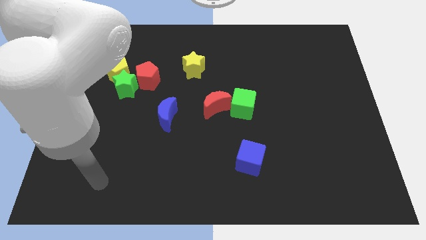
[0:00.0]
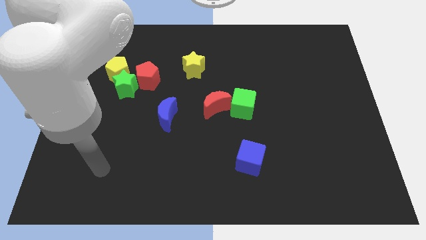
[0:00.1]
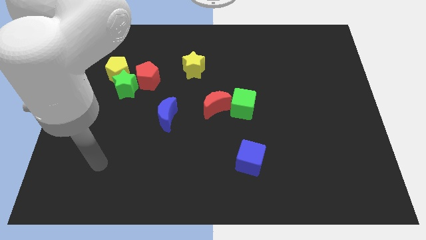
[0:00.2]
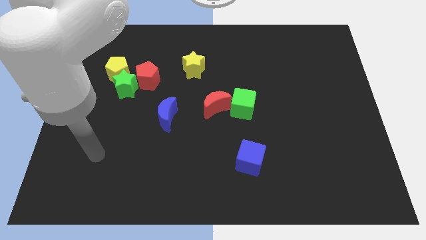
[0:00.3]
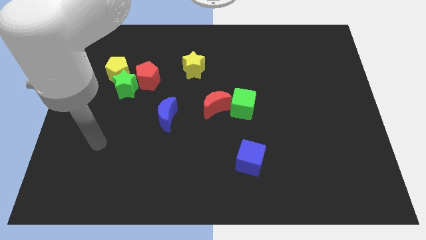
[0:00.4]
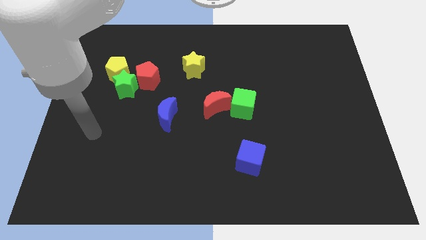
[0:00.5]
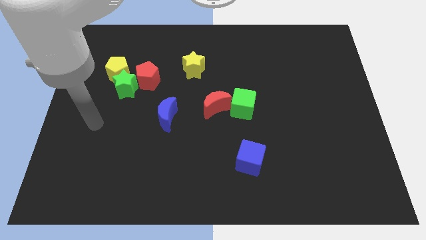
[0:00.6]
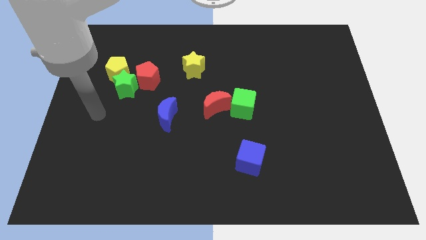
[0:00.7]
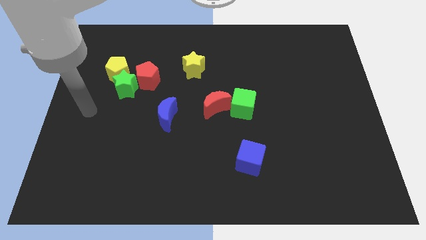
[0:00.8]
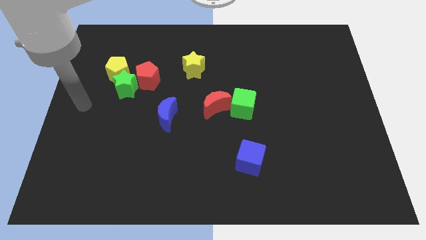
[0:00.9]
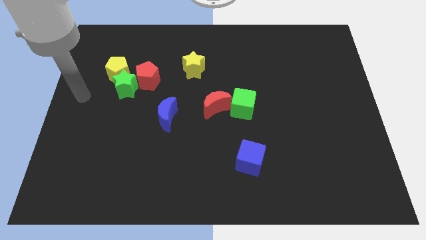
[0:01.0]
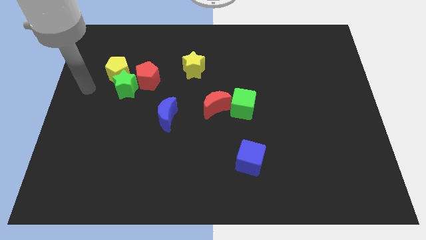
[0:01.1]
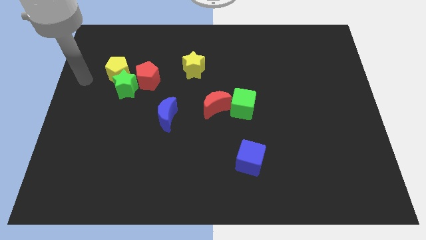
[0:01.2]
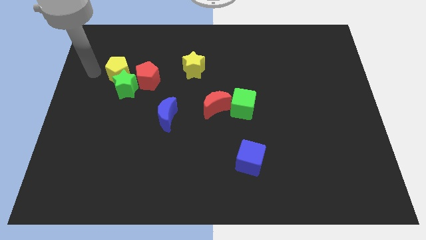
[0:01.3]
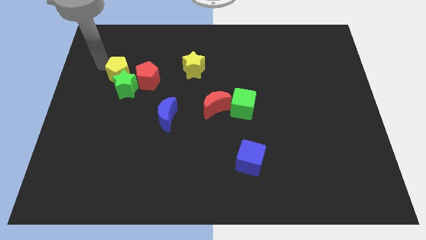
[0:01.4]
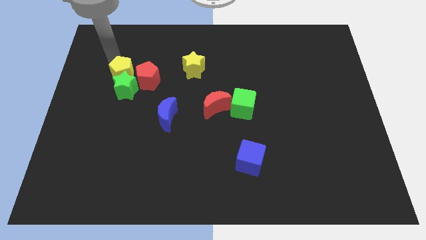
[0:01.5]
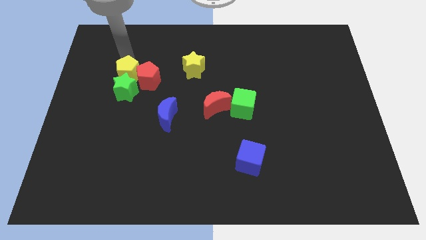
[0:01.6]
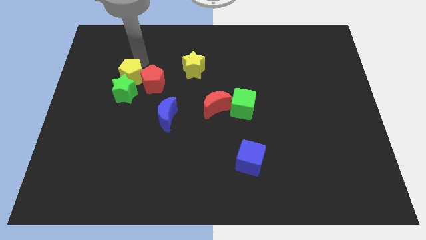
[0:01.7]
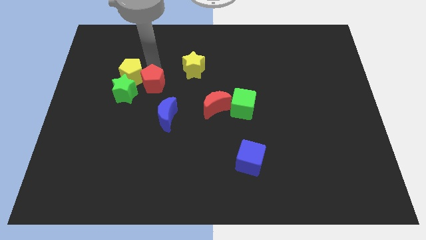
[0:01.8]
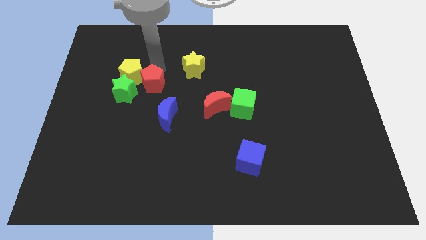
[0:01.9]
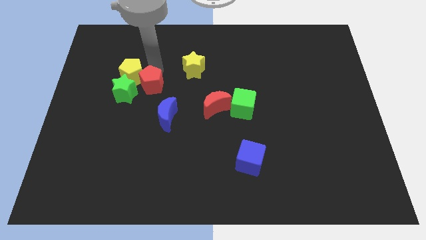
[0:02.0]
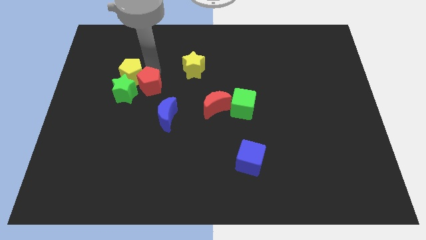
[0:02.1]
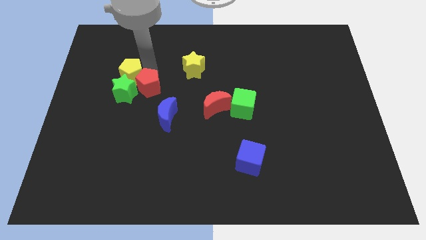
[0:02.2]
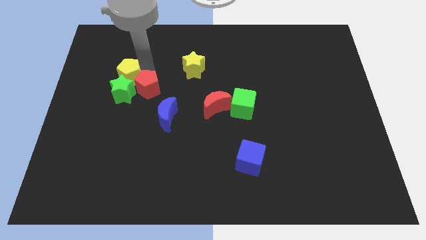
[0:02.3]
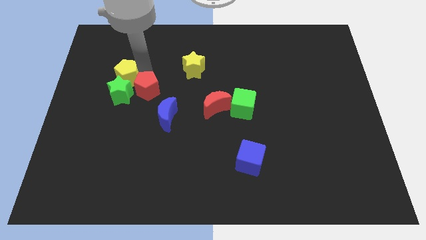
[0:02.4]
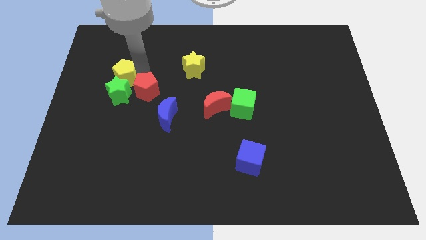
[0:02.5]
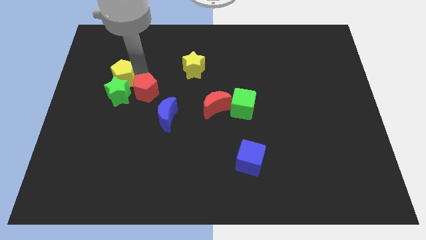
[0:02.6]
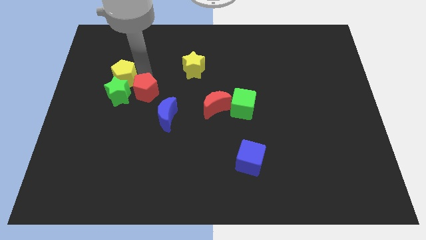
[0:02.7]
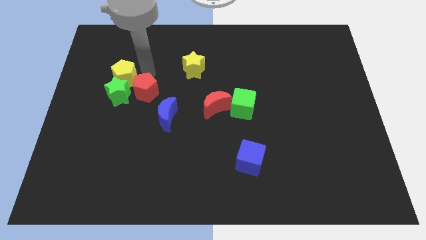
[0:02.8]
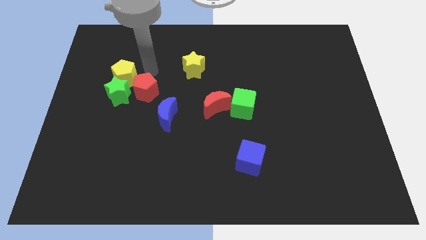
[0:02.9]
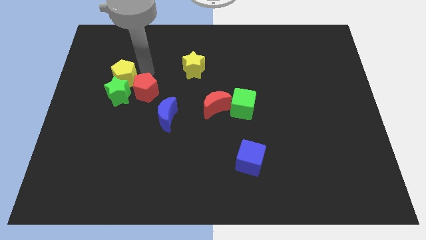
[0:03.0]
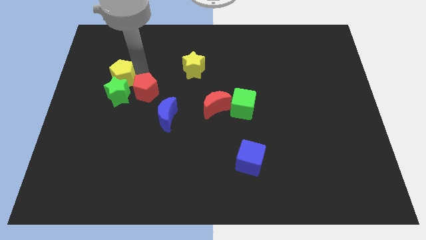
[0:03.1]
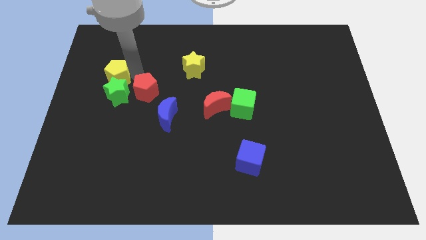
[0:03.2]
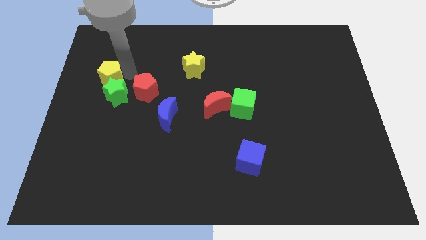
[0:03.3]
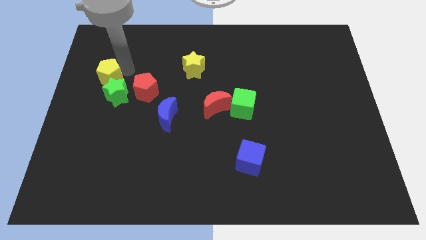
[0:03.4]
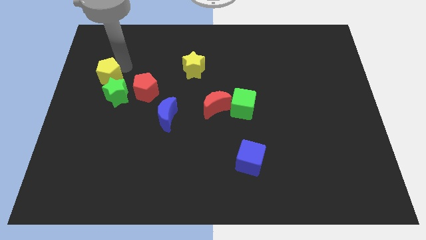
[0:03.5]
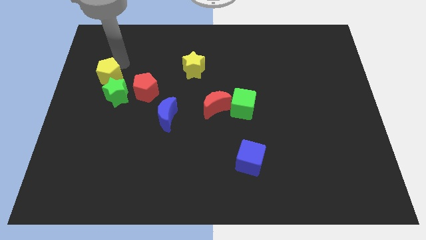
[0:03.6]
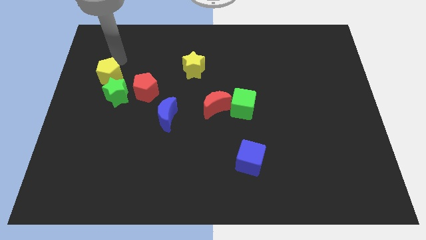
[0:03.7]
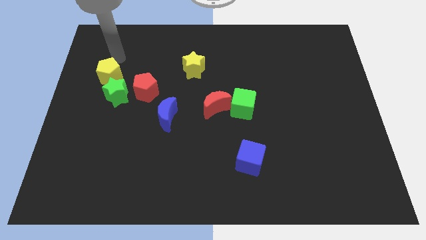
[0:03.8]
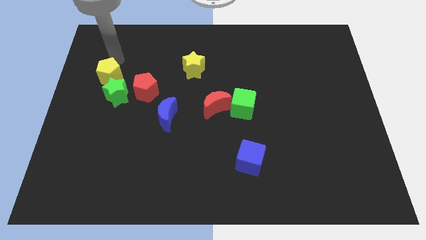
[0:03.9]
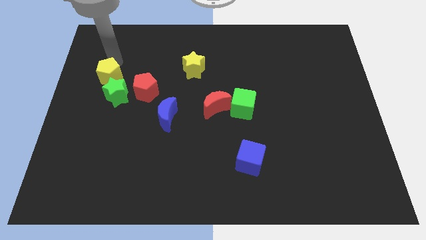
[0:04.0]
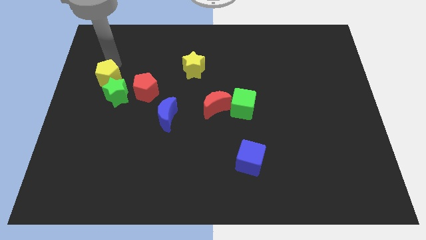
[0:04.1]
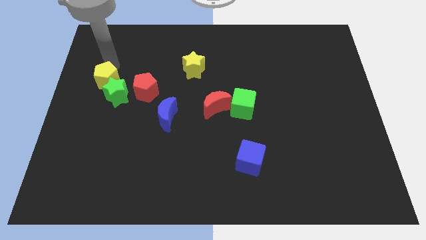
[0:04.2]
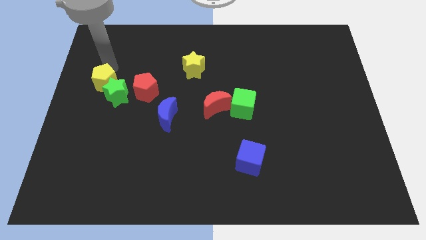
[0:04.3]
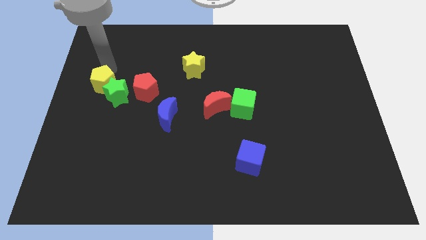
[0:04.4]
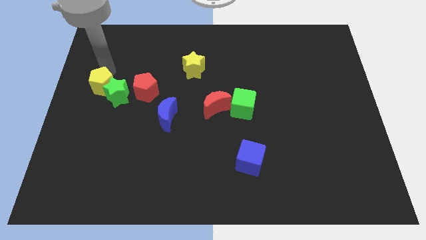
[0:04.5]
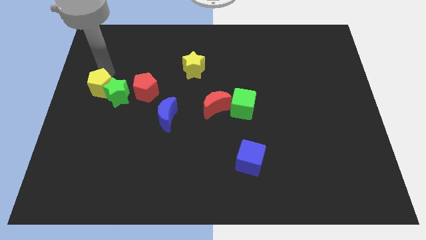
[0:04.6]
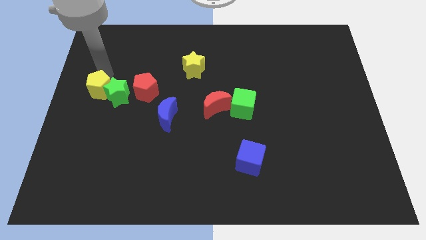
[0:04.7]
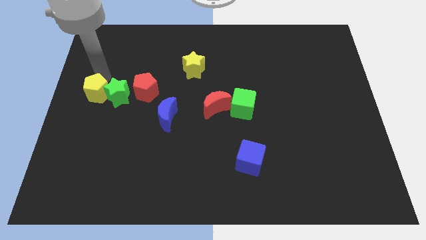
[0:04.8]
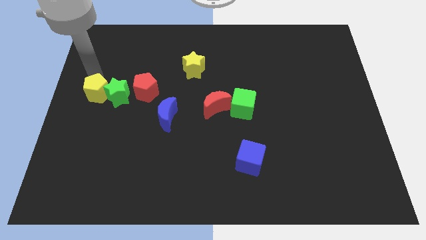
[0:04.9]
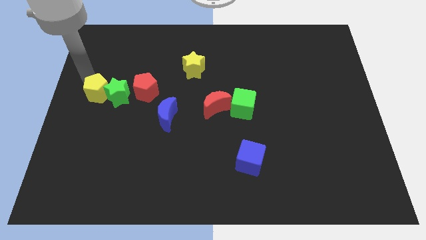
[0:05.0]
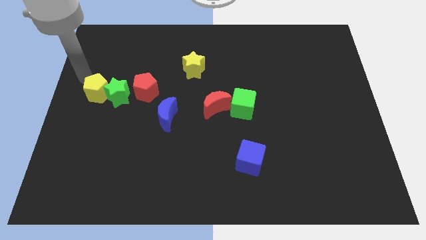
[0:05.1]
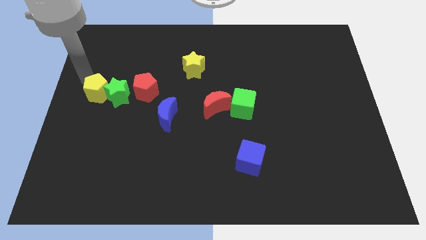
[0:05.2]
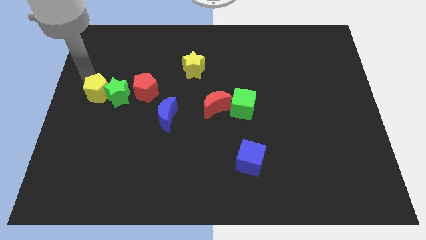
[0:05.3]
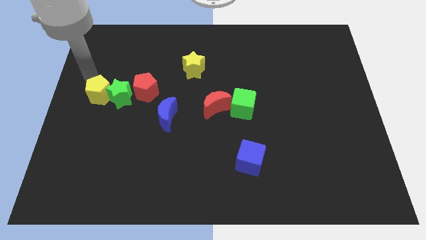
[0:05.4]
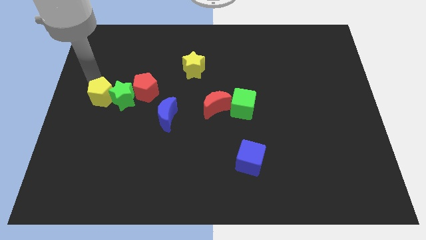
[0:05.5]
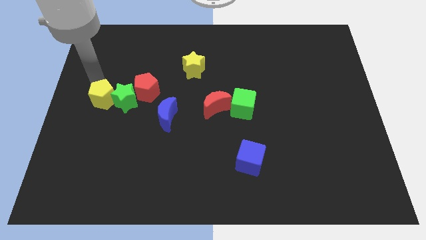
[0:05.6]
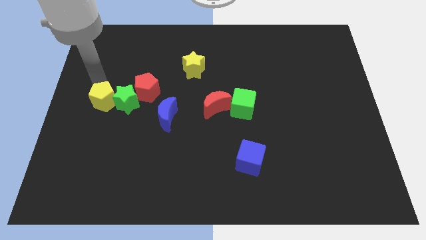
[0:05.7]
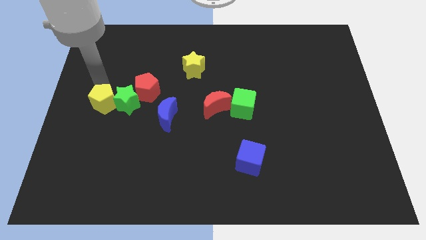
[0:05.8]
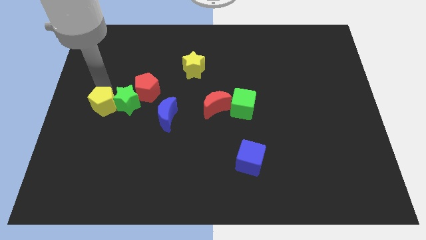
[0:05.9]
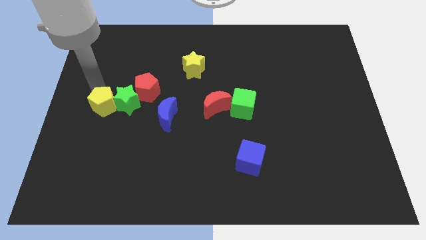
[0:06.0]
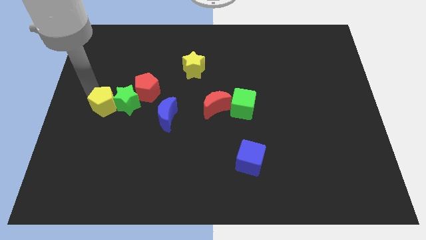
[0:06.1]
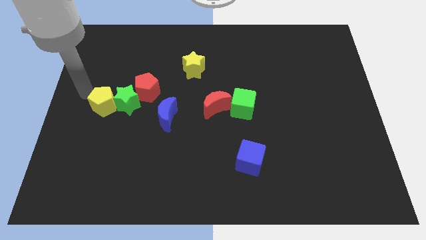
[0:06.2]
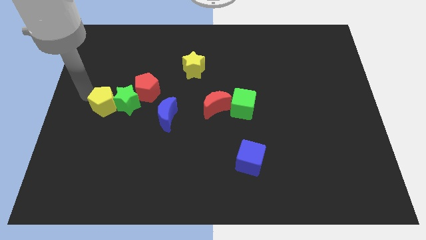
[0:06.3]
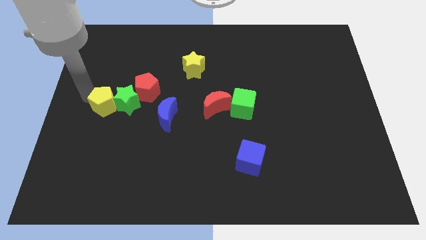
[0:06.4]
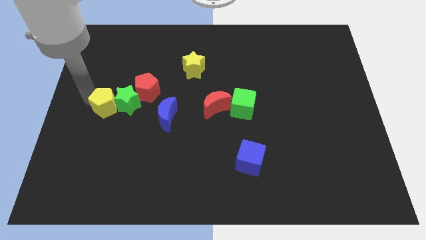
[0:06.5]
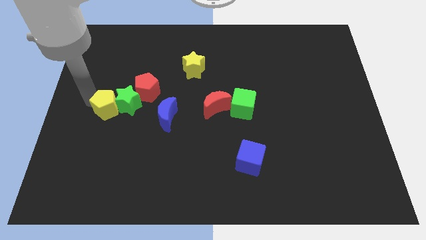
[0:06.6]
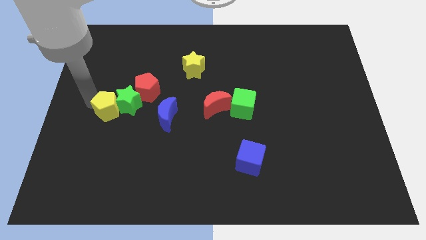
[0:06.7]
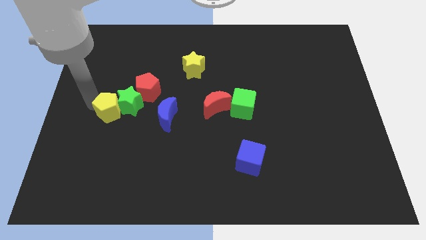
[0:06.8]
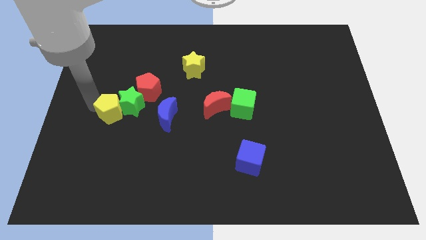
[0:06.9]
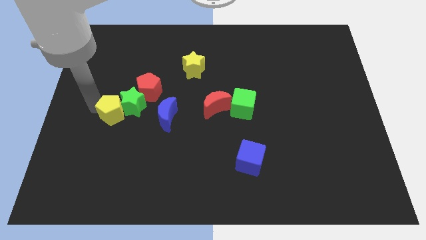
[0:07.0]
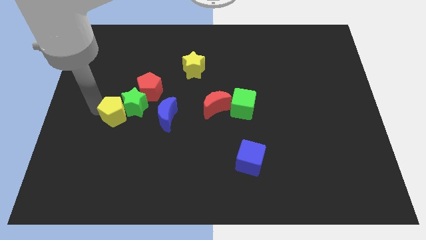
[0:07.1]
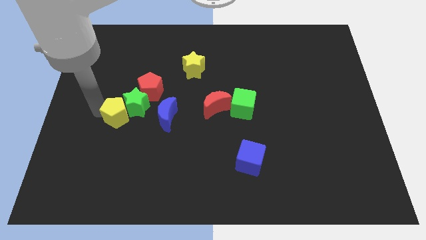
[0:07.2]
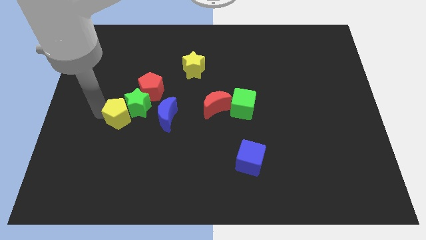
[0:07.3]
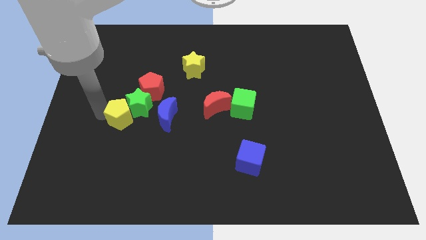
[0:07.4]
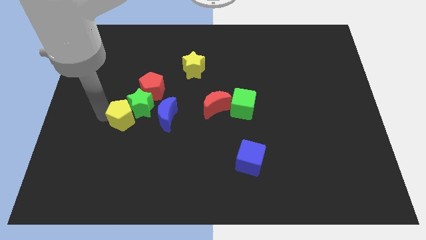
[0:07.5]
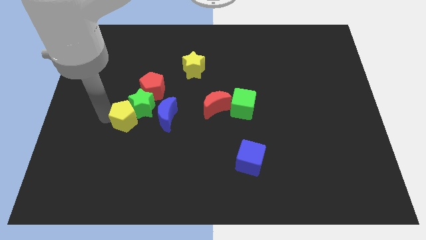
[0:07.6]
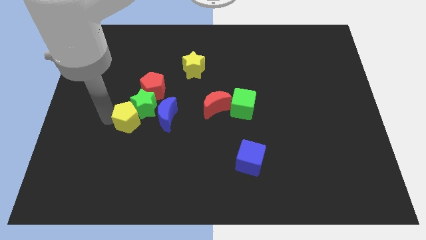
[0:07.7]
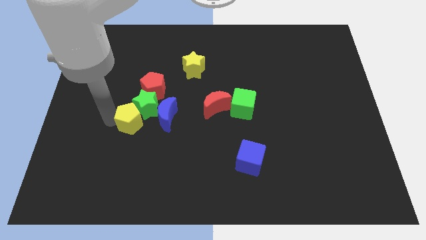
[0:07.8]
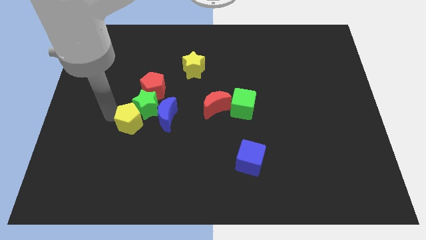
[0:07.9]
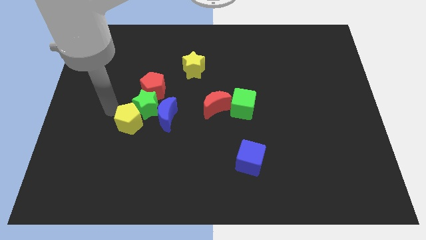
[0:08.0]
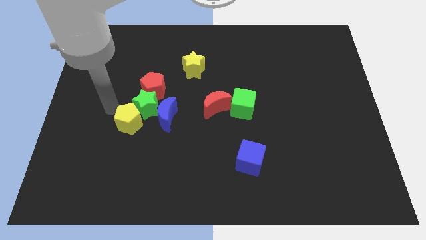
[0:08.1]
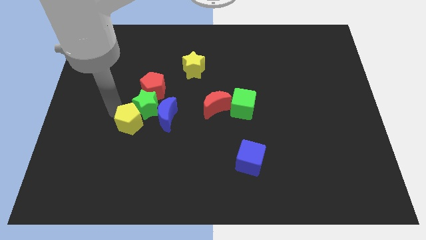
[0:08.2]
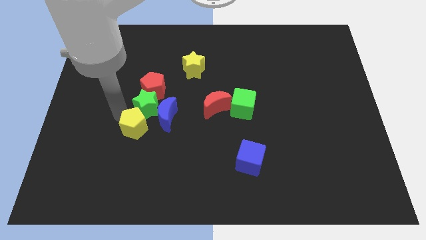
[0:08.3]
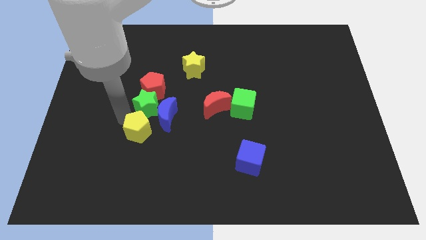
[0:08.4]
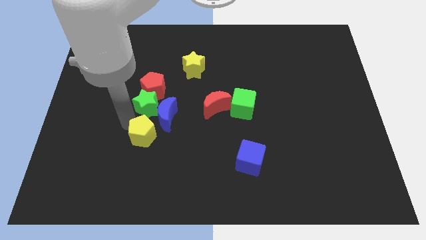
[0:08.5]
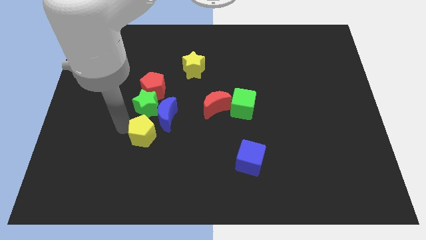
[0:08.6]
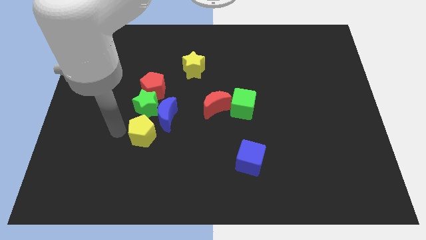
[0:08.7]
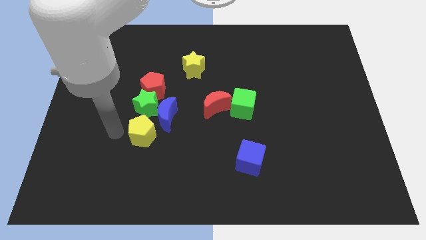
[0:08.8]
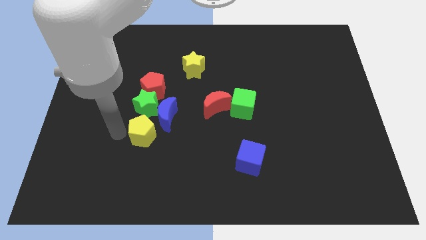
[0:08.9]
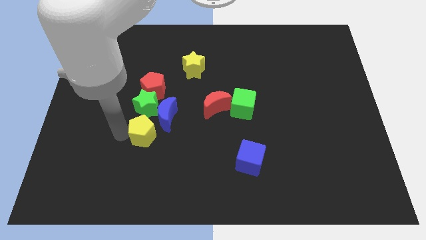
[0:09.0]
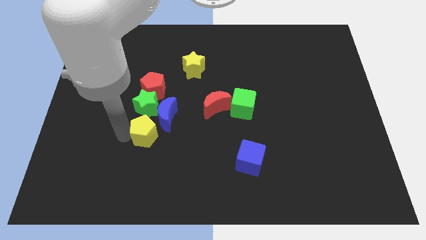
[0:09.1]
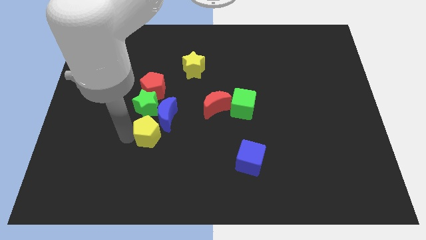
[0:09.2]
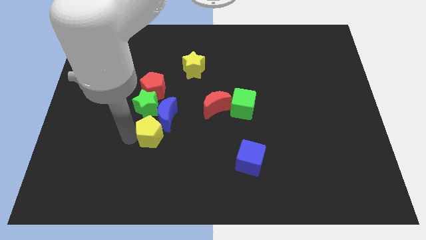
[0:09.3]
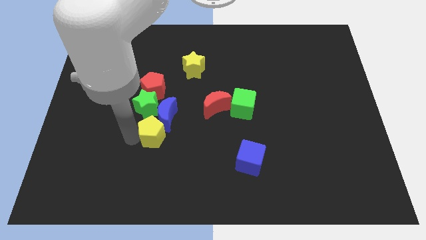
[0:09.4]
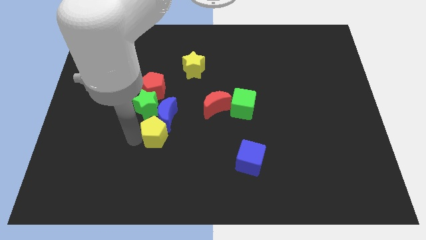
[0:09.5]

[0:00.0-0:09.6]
push the yellow pentagon diagonally down and right
